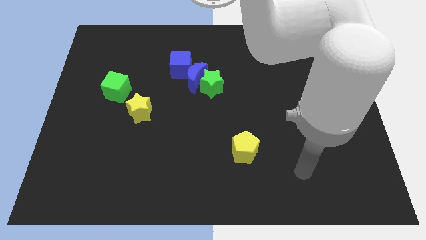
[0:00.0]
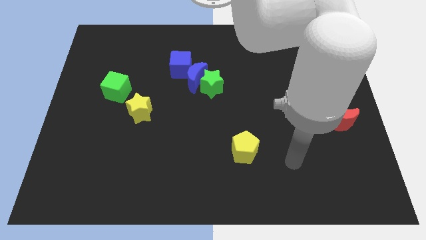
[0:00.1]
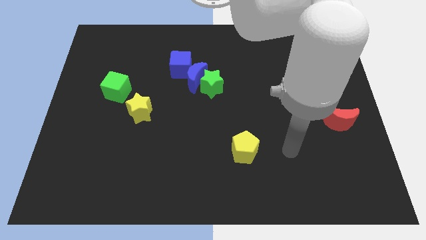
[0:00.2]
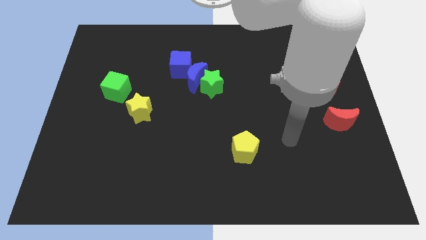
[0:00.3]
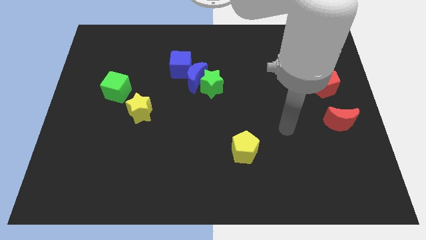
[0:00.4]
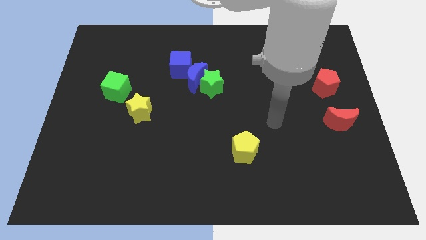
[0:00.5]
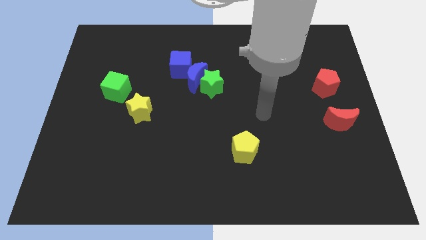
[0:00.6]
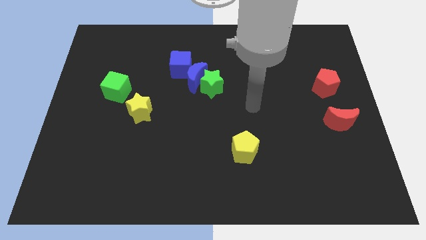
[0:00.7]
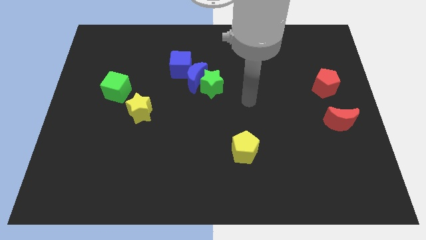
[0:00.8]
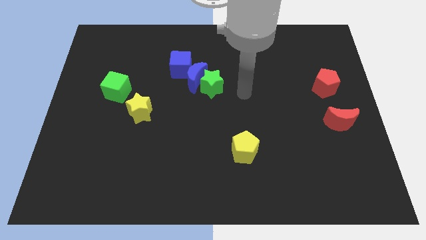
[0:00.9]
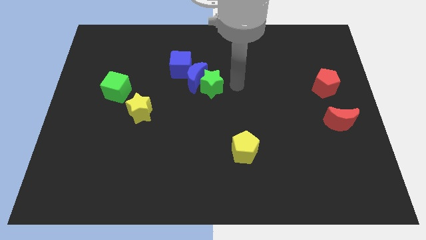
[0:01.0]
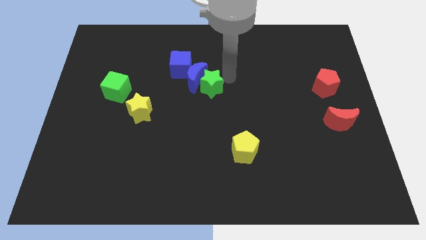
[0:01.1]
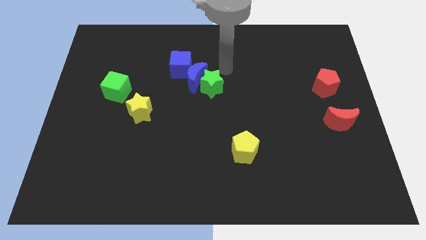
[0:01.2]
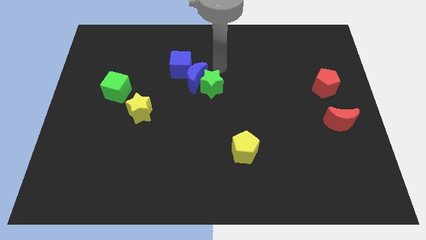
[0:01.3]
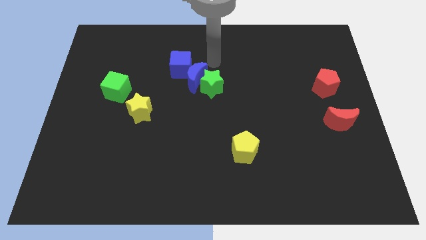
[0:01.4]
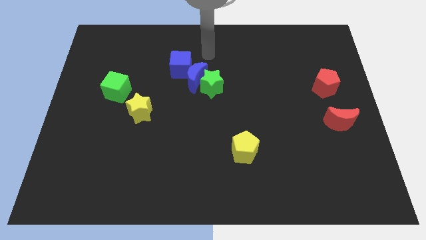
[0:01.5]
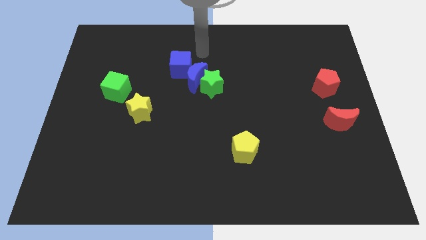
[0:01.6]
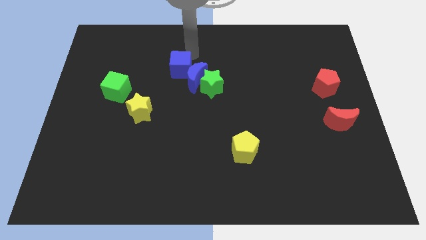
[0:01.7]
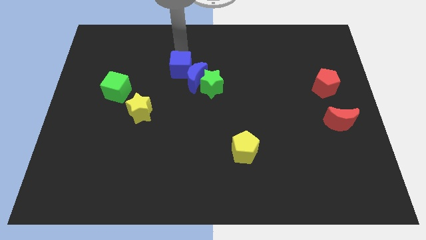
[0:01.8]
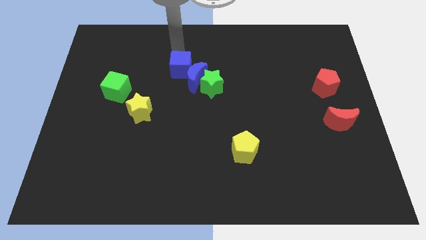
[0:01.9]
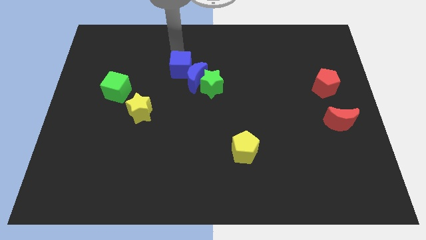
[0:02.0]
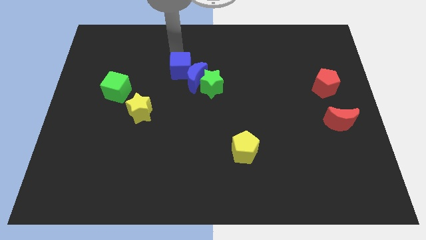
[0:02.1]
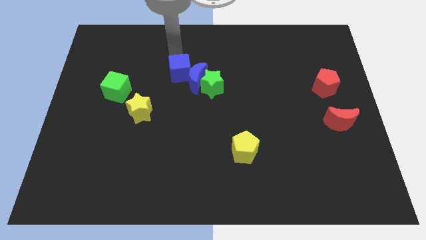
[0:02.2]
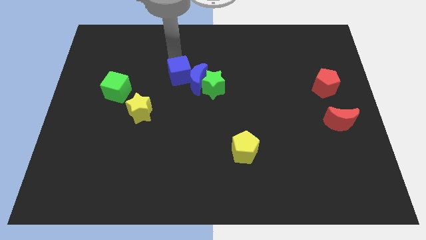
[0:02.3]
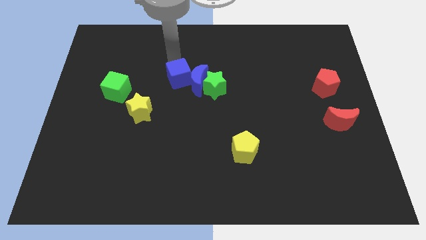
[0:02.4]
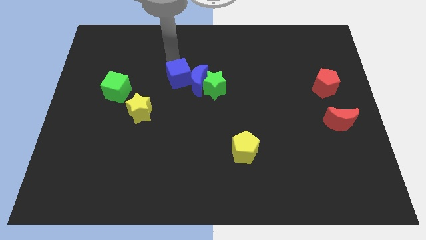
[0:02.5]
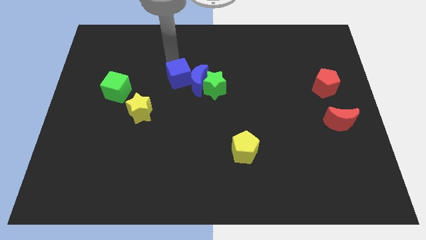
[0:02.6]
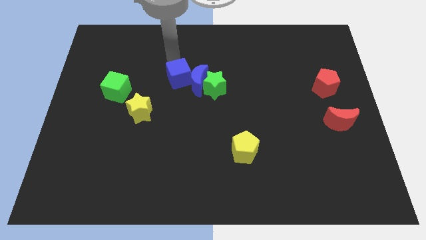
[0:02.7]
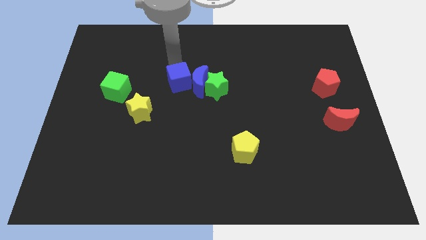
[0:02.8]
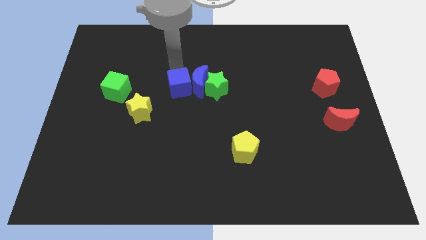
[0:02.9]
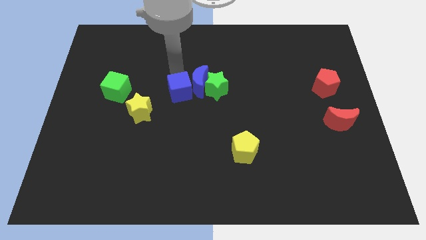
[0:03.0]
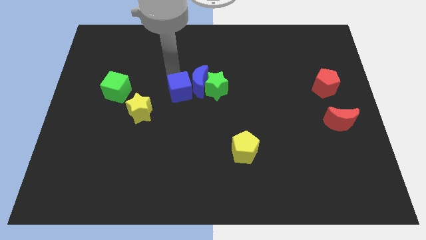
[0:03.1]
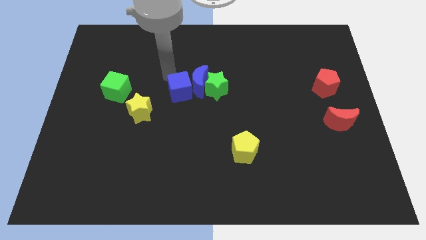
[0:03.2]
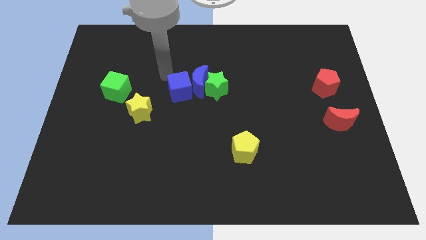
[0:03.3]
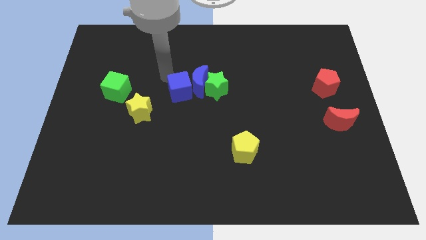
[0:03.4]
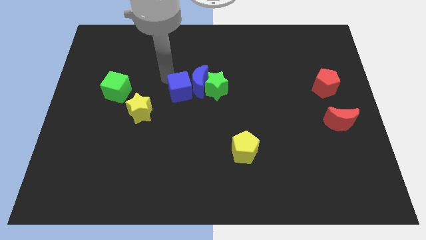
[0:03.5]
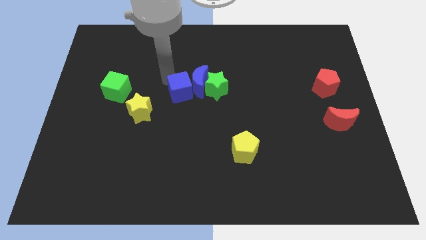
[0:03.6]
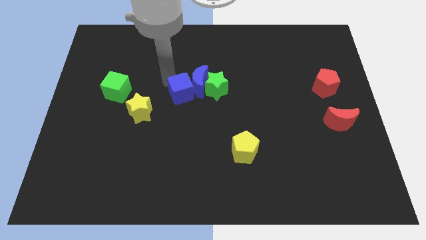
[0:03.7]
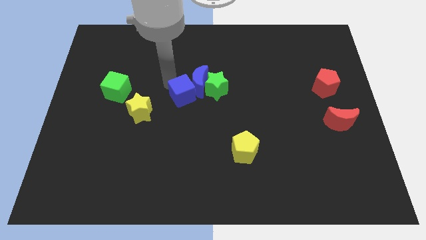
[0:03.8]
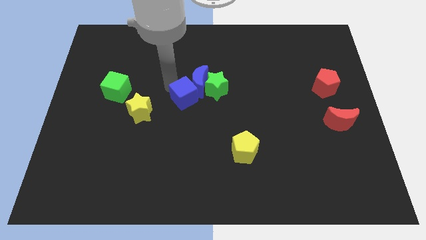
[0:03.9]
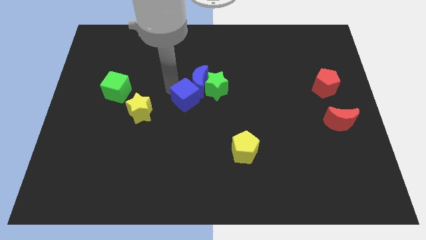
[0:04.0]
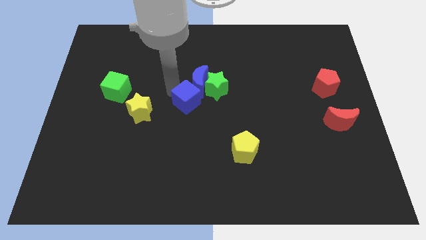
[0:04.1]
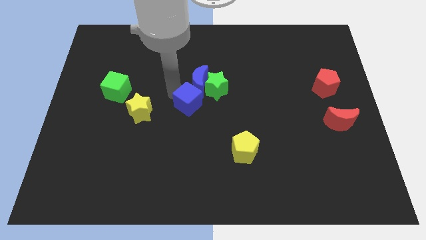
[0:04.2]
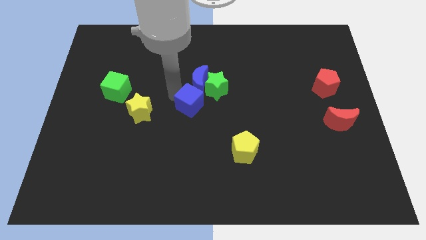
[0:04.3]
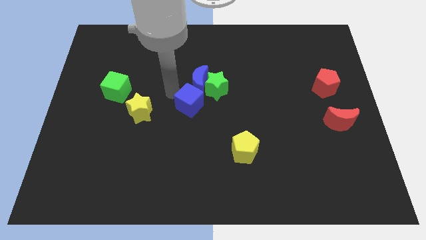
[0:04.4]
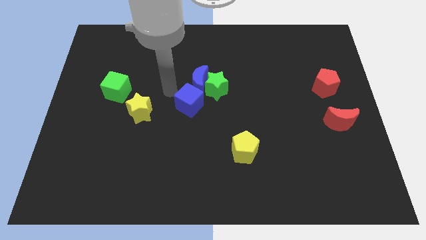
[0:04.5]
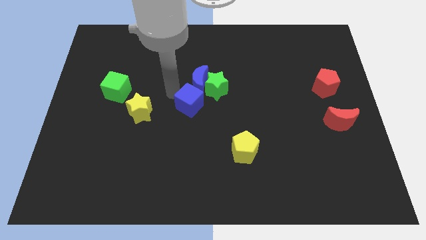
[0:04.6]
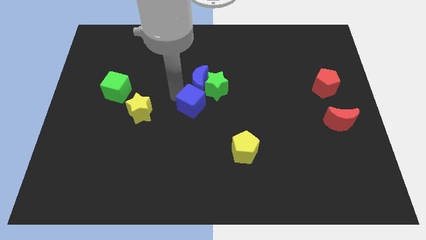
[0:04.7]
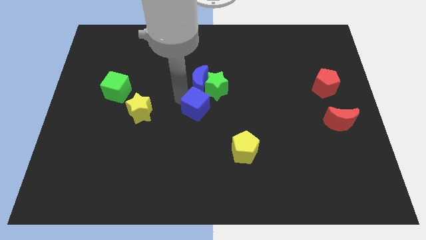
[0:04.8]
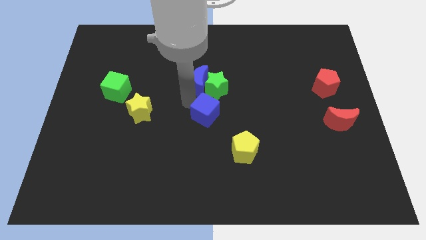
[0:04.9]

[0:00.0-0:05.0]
move the blue cube to the top left side of the yellow pentagon

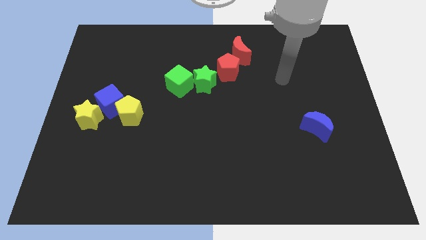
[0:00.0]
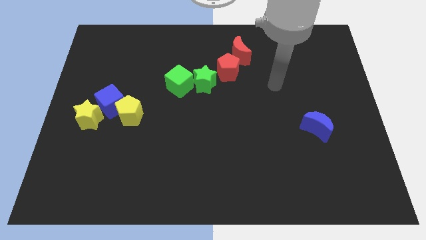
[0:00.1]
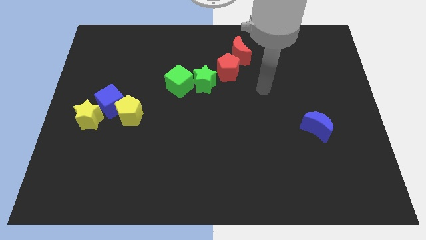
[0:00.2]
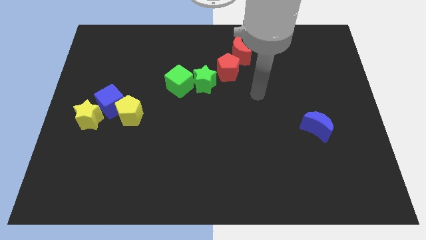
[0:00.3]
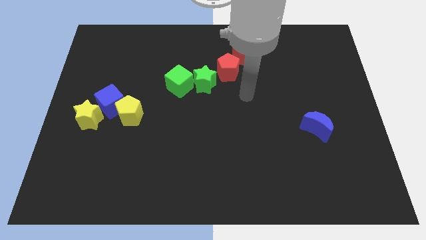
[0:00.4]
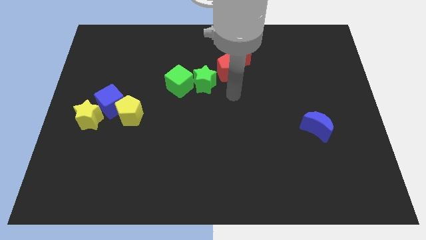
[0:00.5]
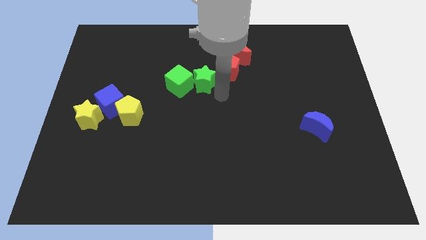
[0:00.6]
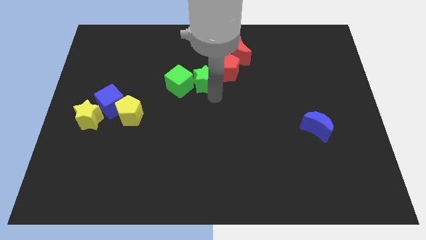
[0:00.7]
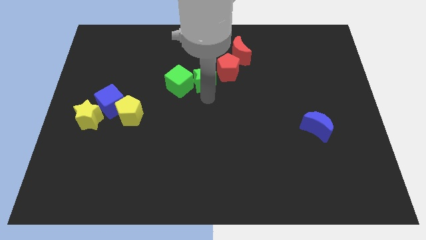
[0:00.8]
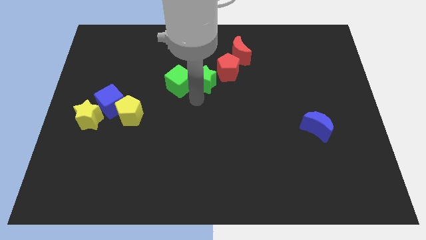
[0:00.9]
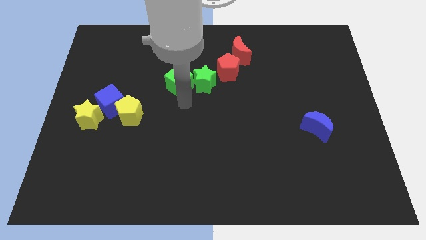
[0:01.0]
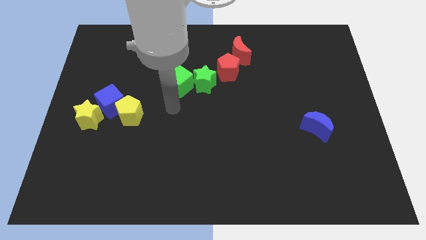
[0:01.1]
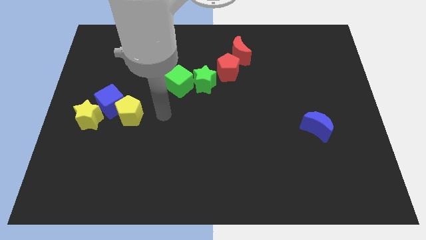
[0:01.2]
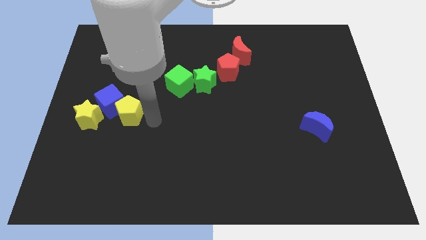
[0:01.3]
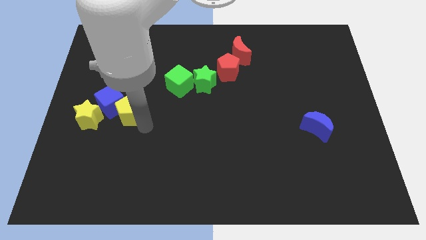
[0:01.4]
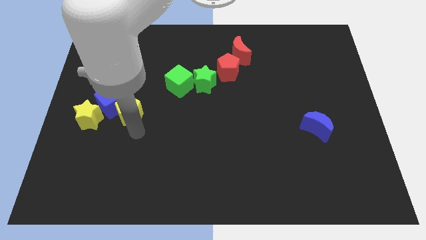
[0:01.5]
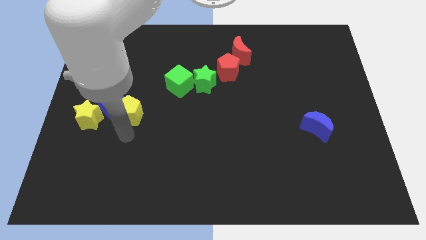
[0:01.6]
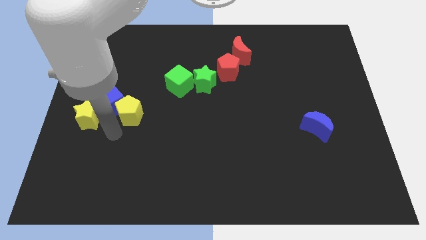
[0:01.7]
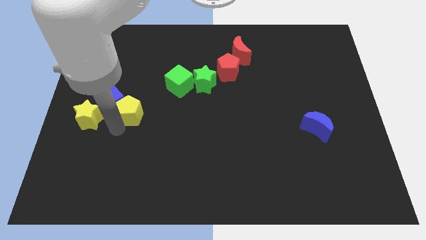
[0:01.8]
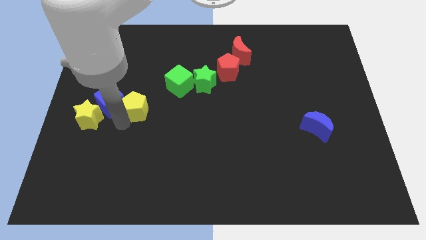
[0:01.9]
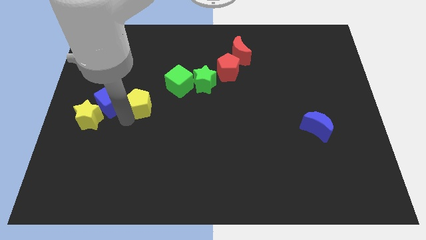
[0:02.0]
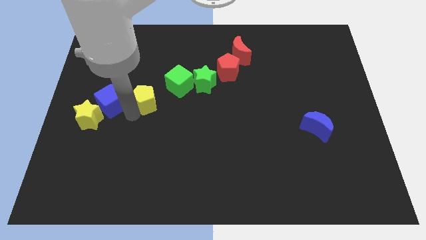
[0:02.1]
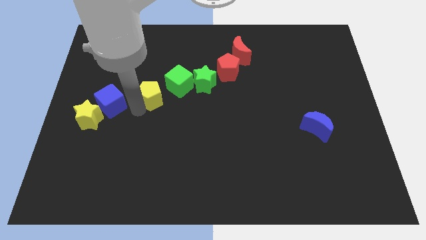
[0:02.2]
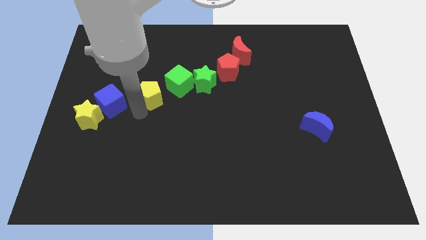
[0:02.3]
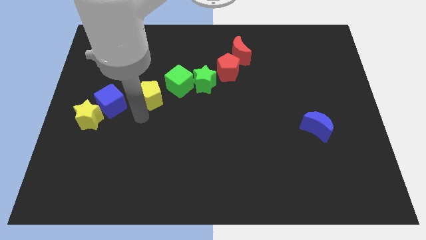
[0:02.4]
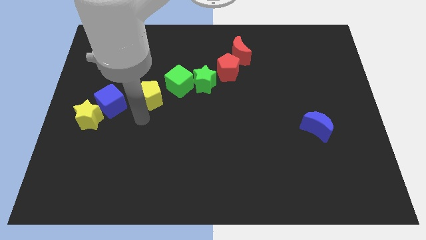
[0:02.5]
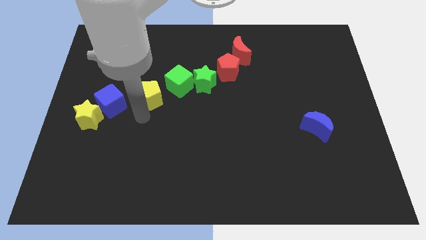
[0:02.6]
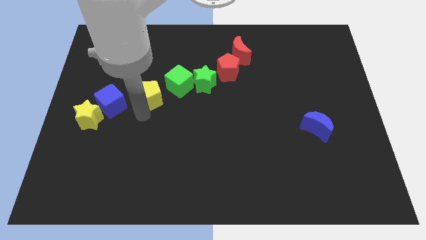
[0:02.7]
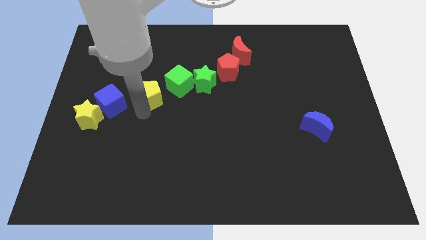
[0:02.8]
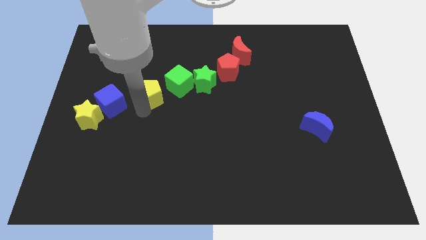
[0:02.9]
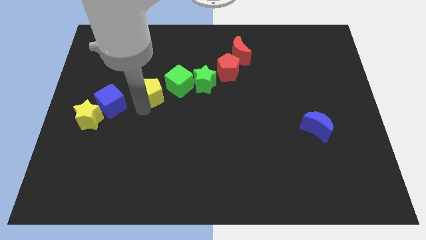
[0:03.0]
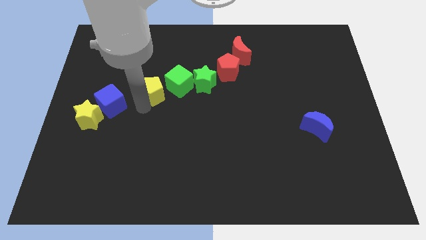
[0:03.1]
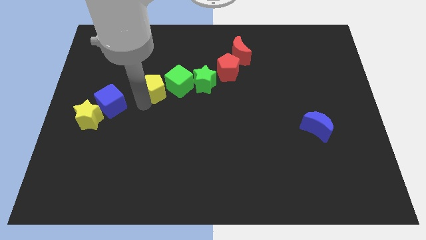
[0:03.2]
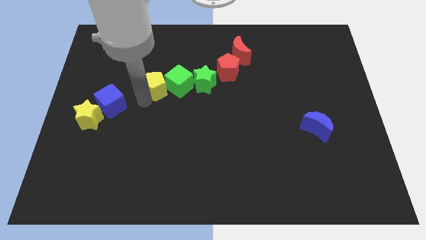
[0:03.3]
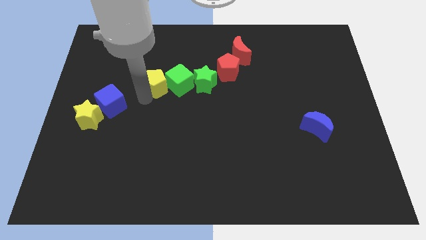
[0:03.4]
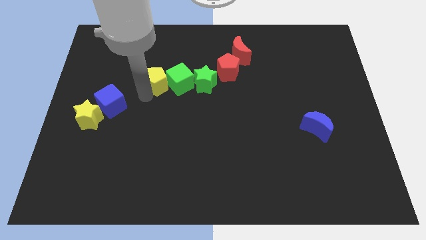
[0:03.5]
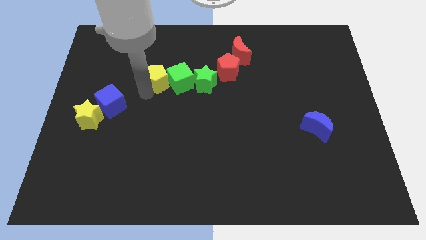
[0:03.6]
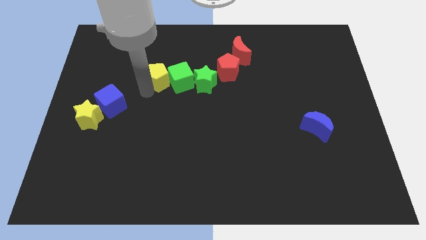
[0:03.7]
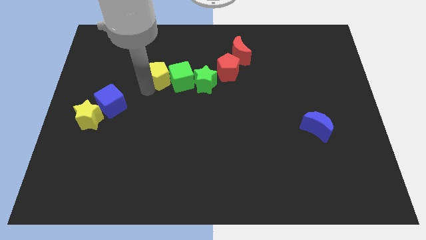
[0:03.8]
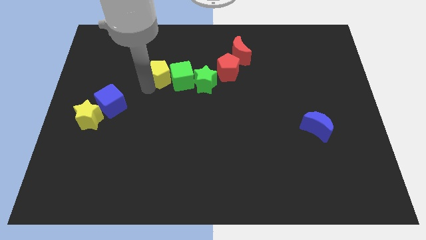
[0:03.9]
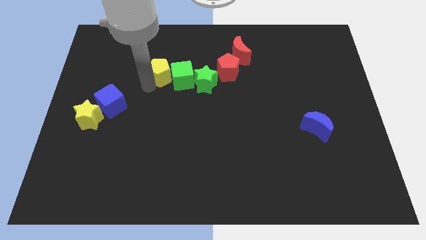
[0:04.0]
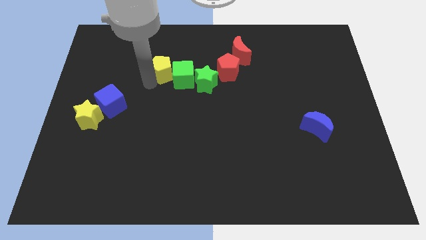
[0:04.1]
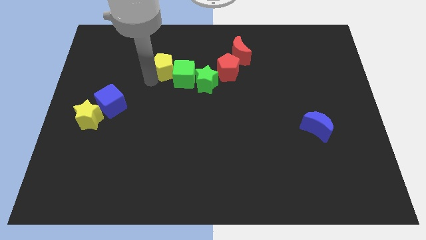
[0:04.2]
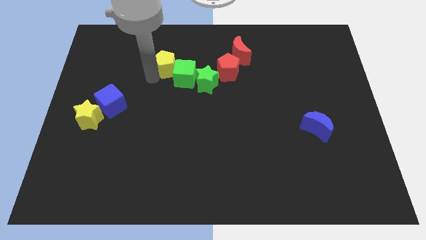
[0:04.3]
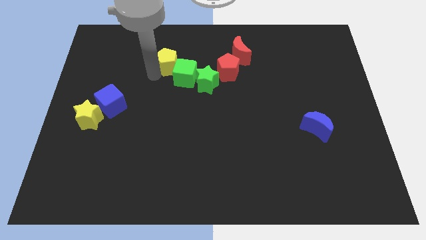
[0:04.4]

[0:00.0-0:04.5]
put the yellow pentagon to the top of the green cube
